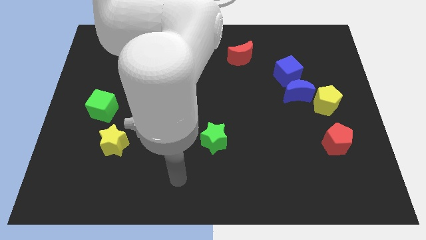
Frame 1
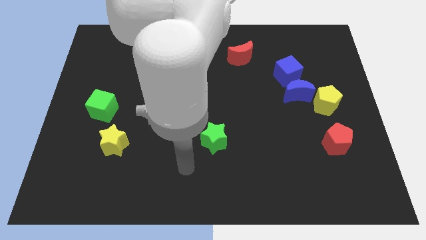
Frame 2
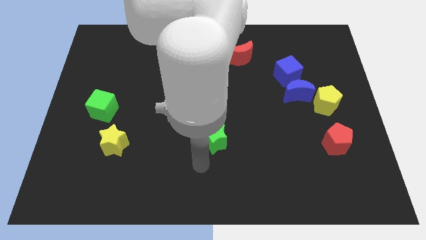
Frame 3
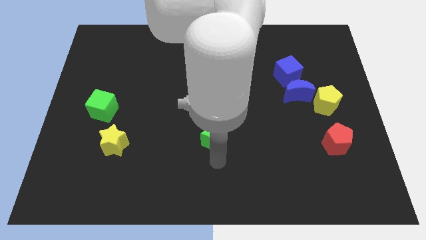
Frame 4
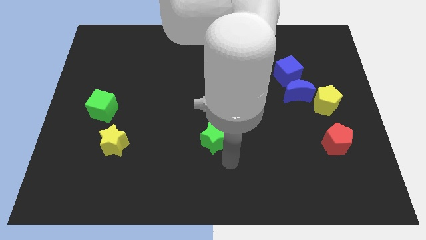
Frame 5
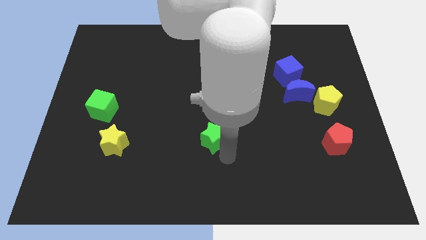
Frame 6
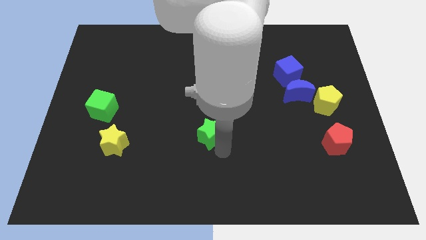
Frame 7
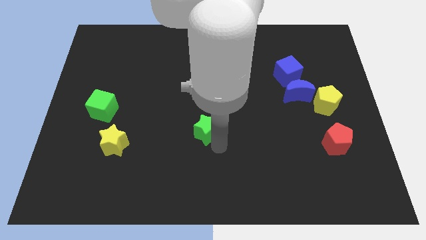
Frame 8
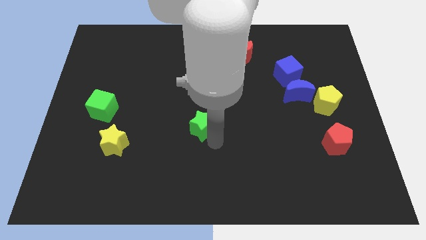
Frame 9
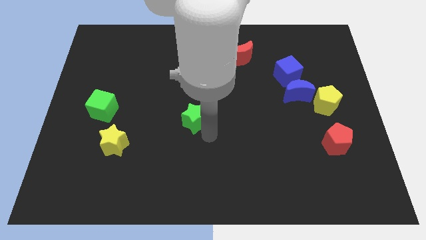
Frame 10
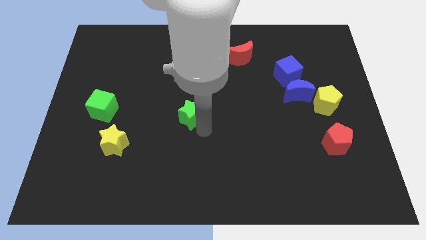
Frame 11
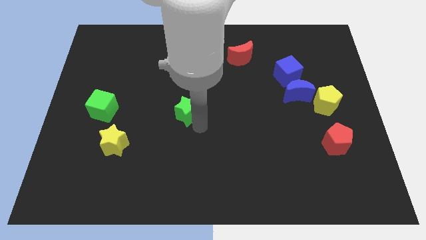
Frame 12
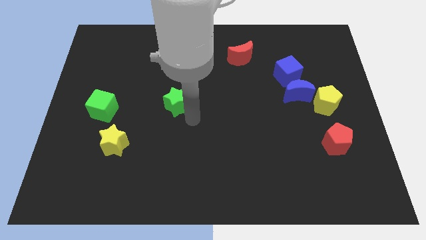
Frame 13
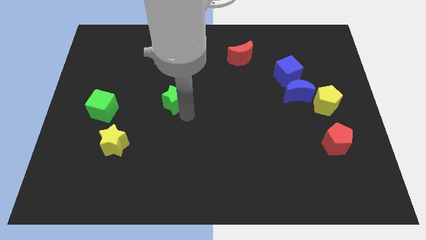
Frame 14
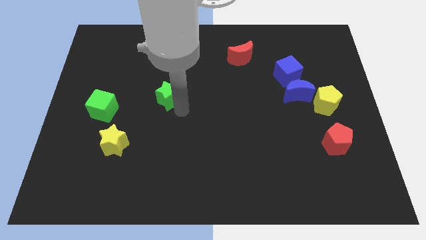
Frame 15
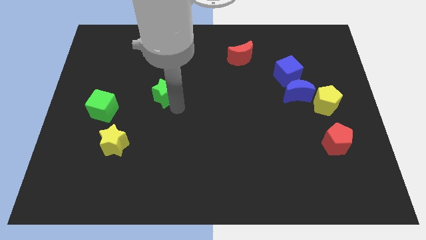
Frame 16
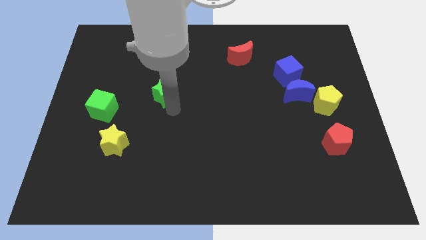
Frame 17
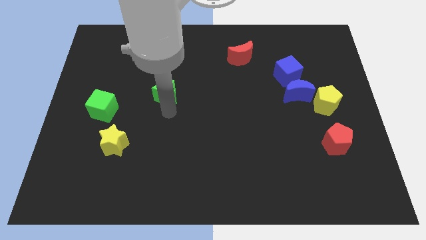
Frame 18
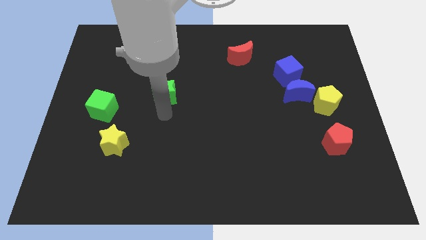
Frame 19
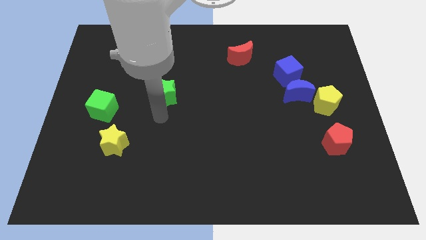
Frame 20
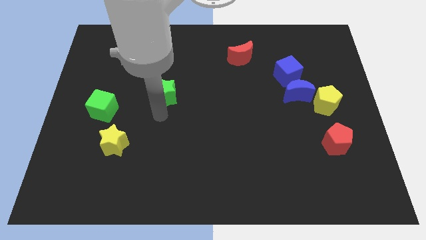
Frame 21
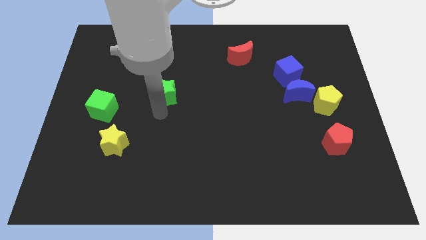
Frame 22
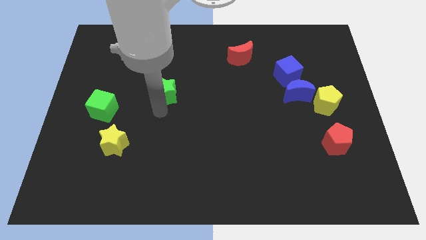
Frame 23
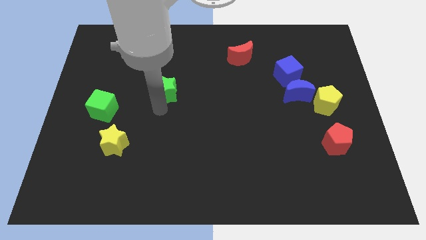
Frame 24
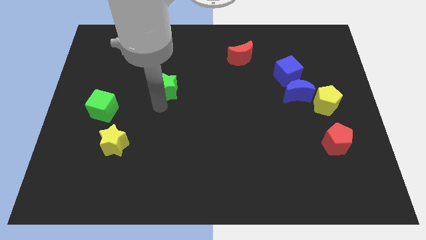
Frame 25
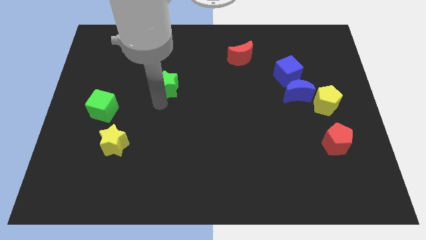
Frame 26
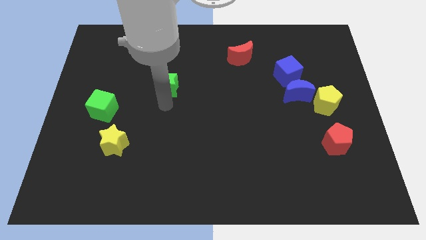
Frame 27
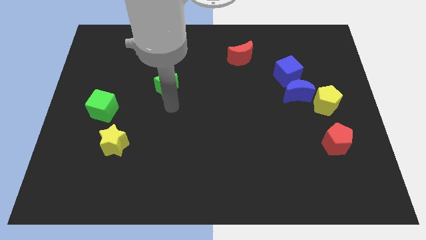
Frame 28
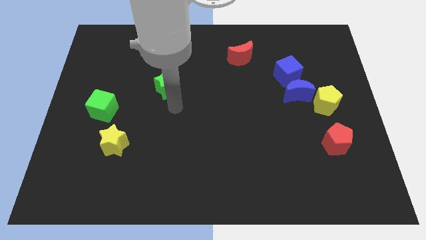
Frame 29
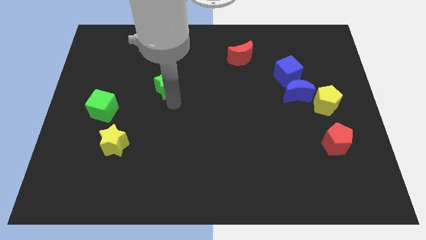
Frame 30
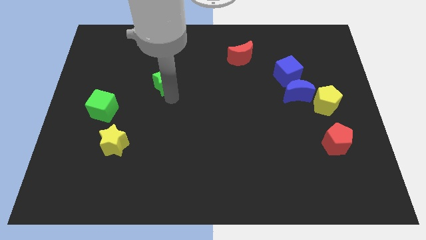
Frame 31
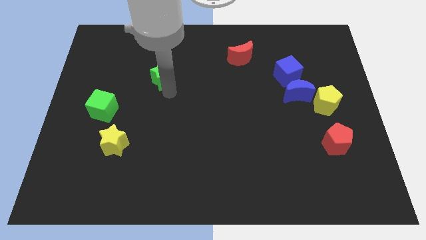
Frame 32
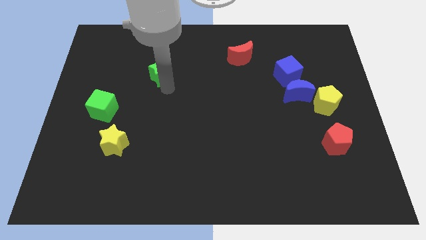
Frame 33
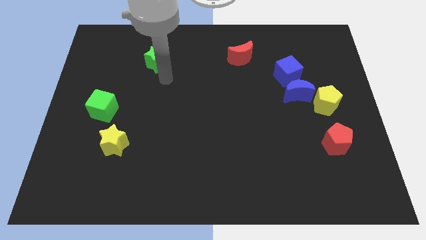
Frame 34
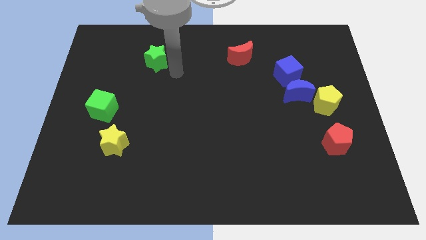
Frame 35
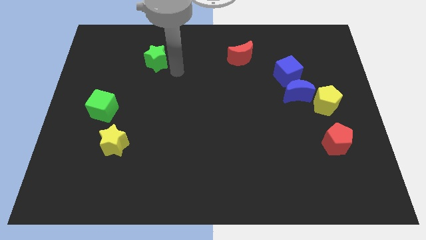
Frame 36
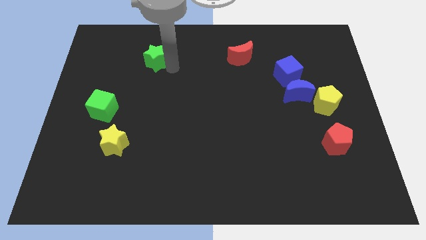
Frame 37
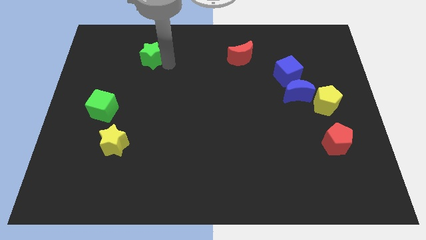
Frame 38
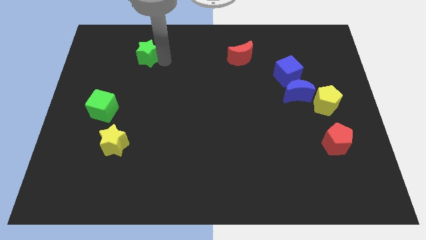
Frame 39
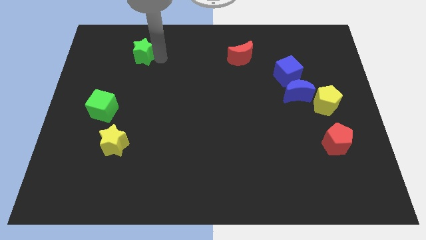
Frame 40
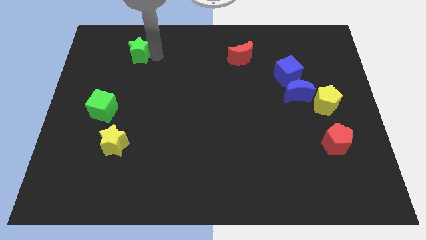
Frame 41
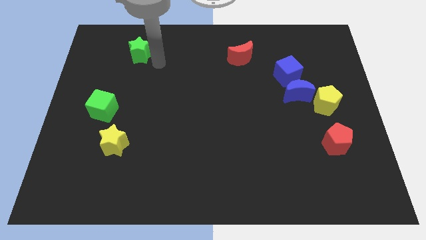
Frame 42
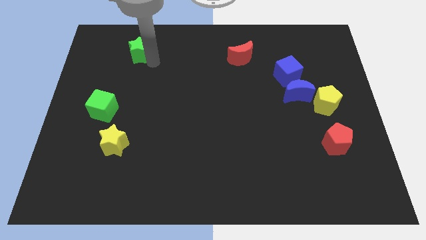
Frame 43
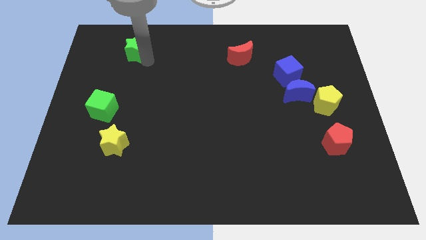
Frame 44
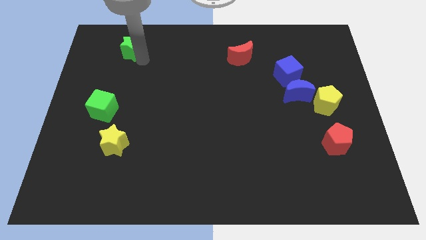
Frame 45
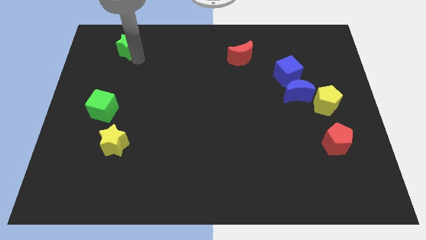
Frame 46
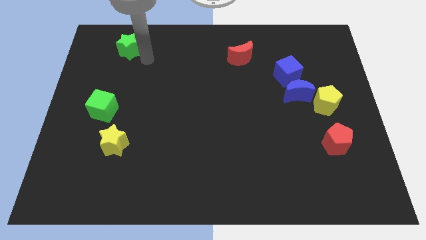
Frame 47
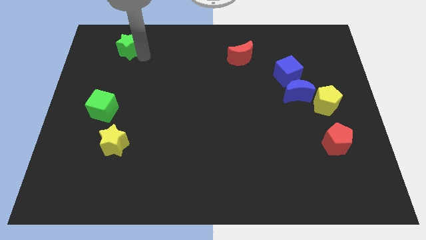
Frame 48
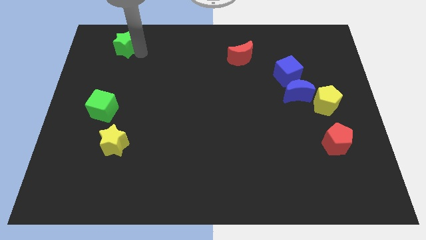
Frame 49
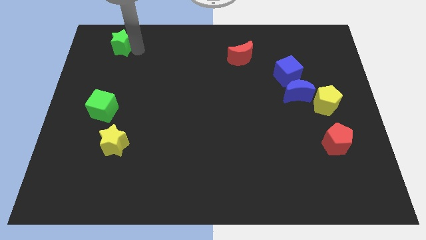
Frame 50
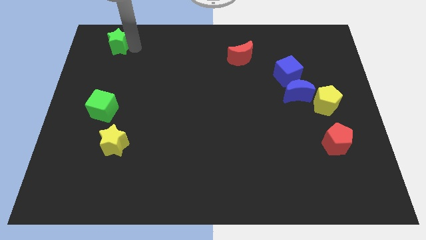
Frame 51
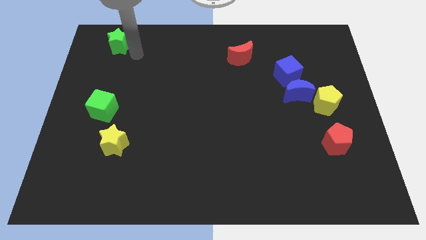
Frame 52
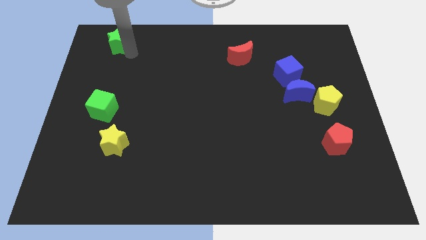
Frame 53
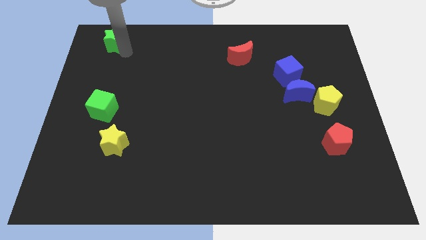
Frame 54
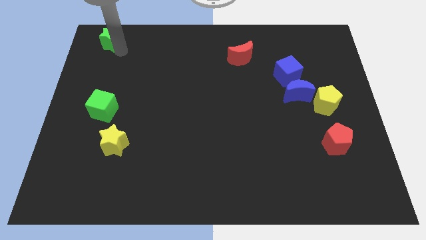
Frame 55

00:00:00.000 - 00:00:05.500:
move the green star to the top left corner

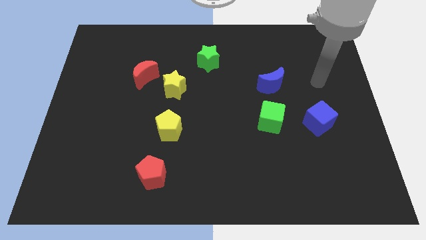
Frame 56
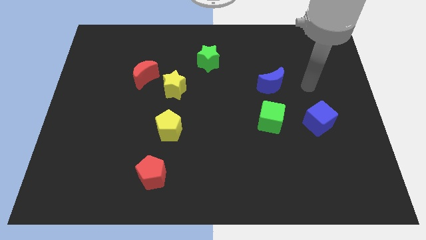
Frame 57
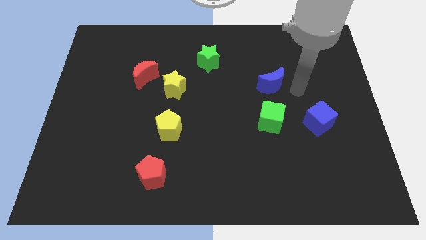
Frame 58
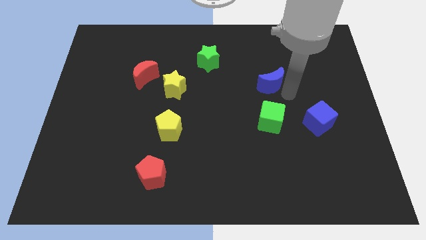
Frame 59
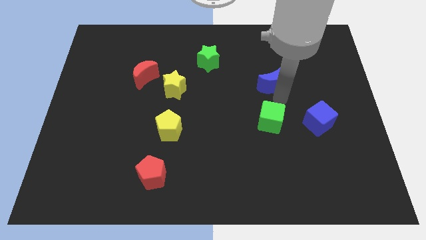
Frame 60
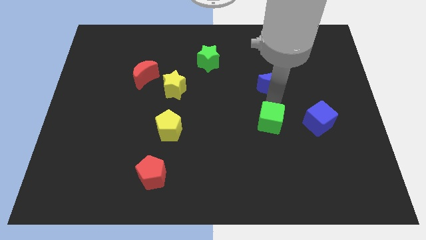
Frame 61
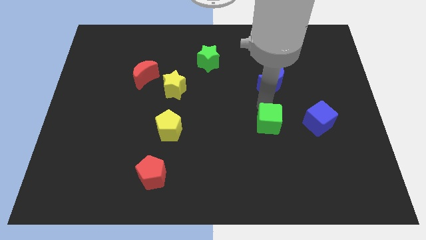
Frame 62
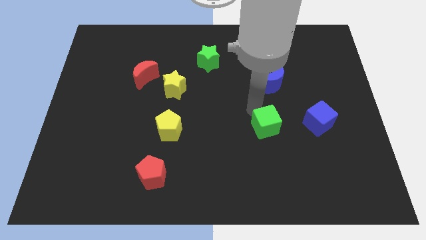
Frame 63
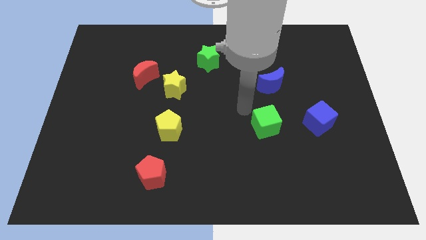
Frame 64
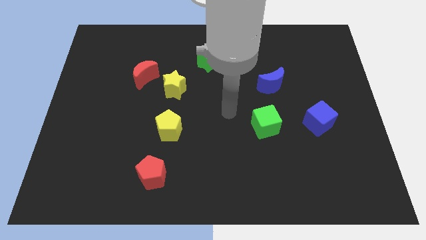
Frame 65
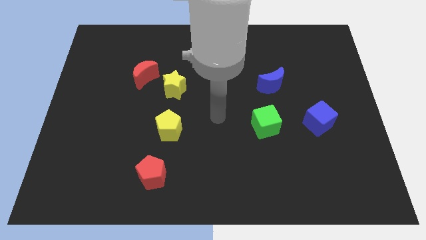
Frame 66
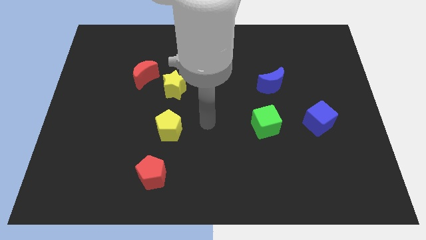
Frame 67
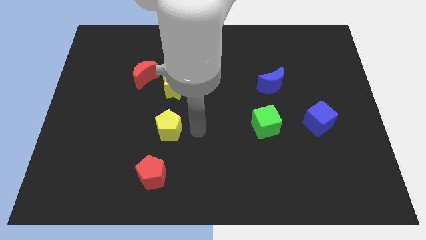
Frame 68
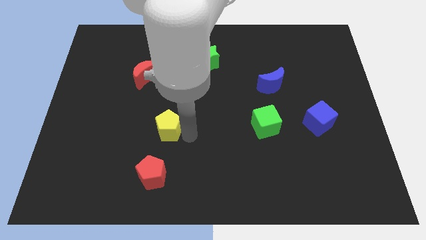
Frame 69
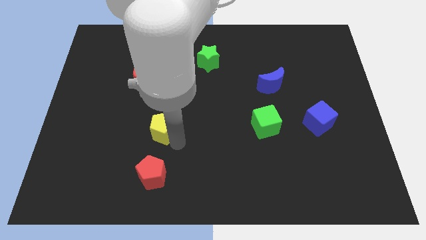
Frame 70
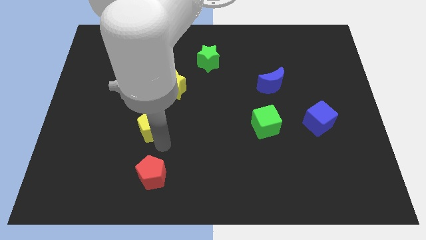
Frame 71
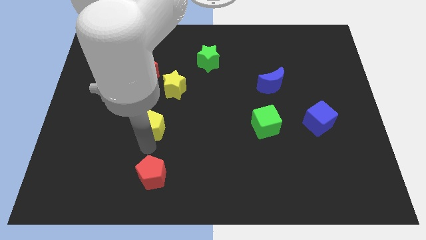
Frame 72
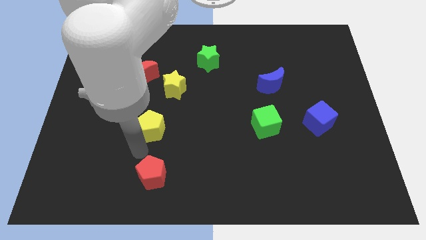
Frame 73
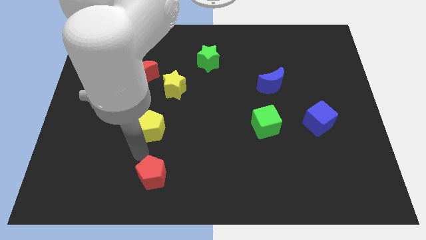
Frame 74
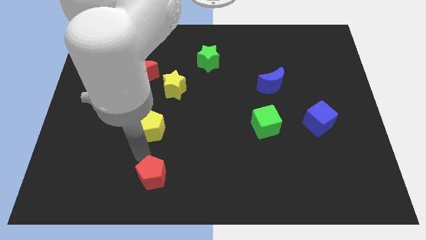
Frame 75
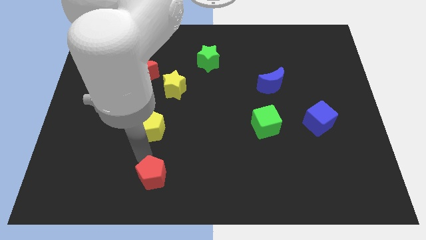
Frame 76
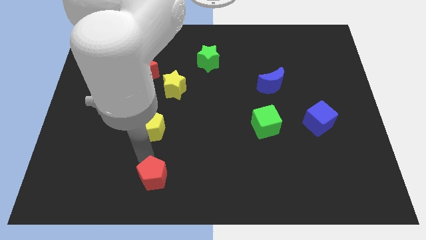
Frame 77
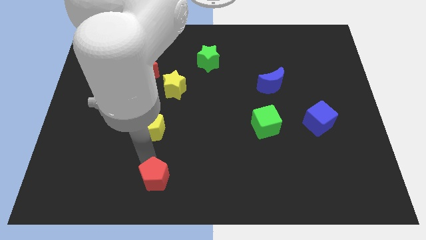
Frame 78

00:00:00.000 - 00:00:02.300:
slide the red pentagon to the bottom side
